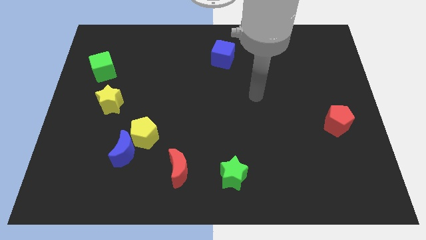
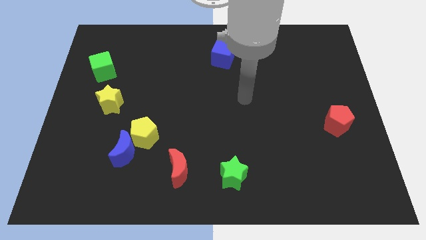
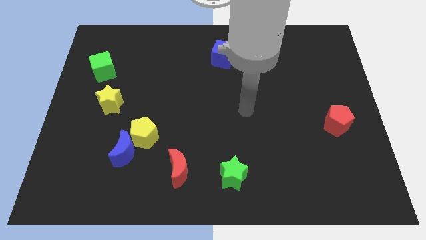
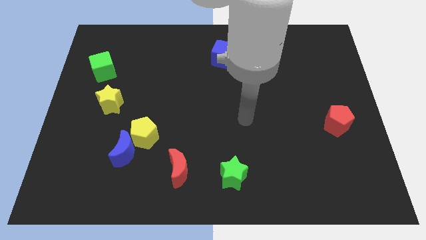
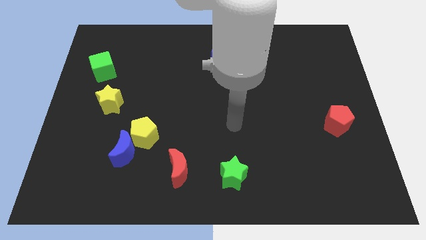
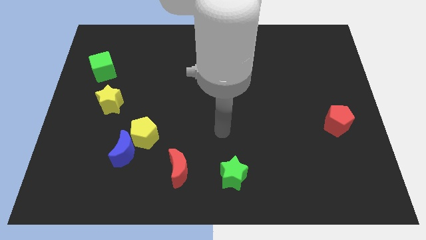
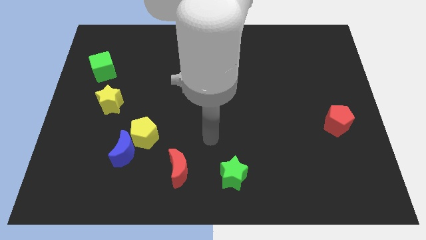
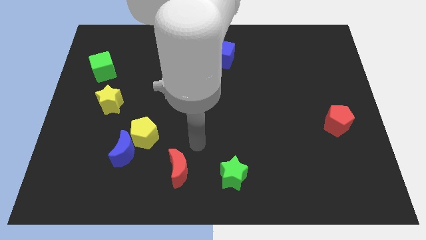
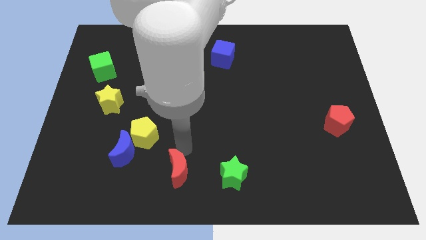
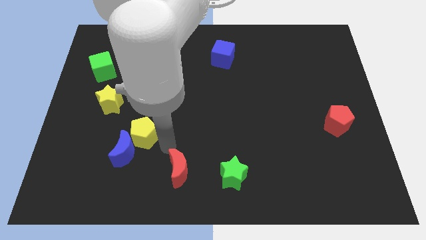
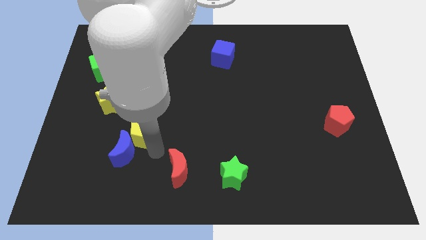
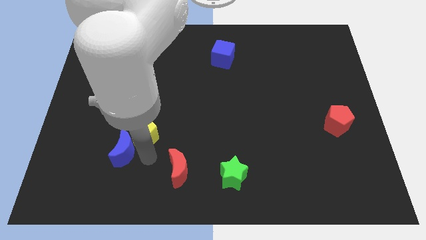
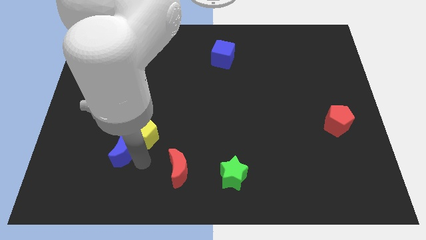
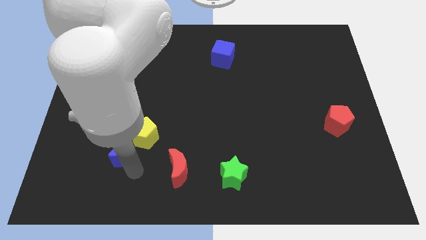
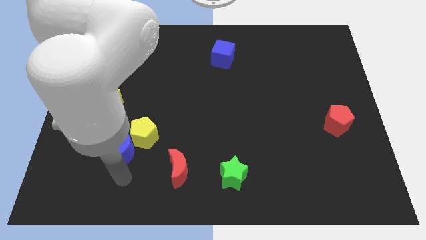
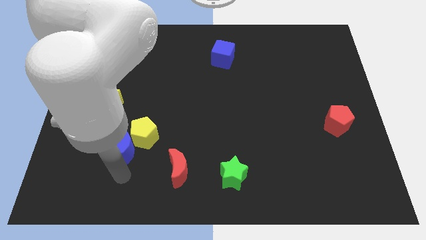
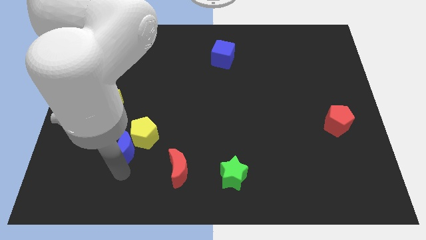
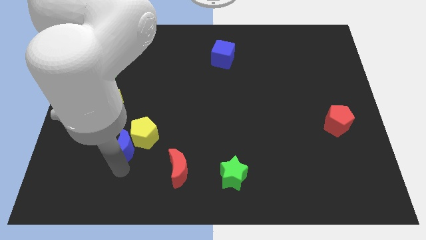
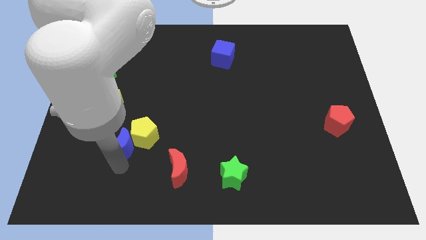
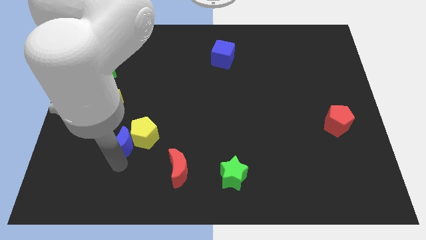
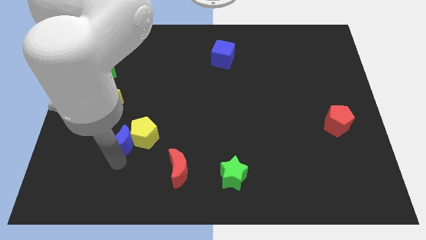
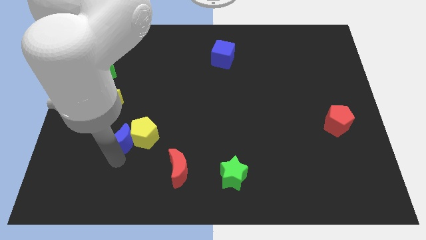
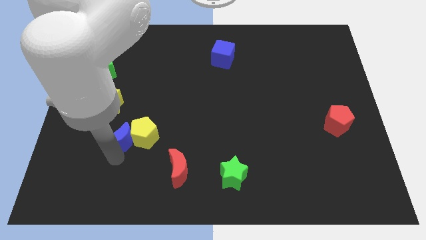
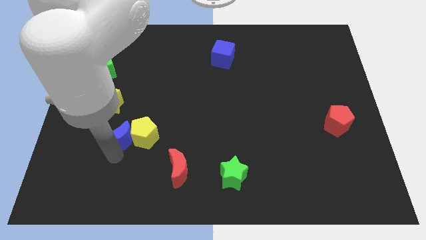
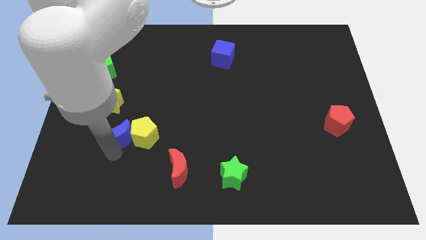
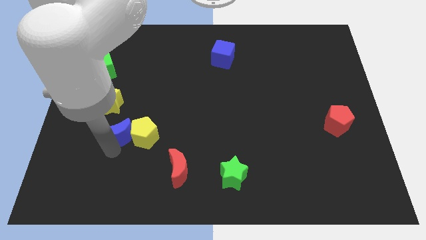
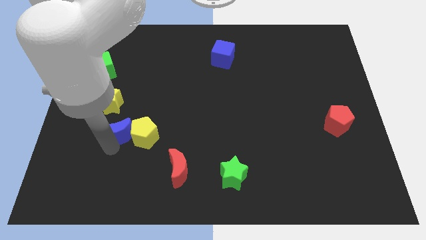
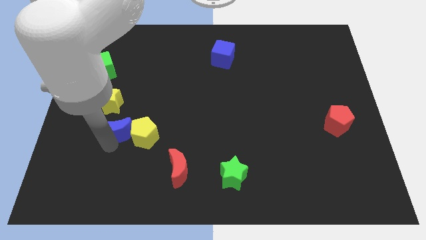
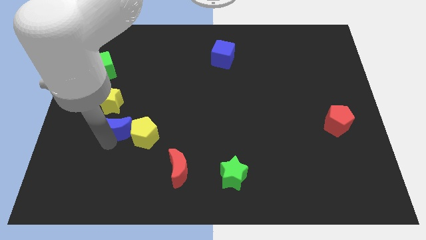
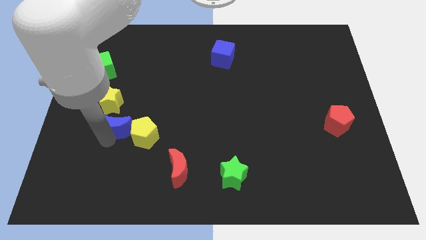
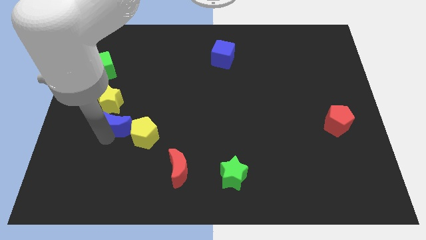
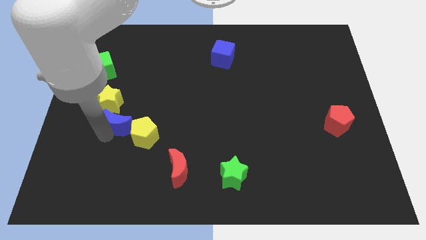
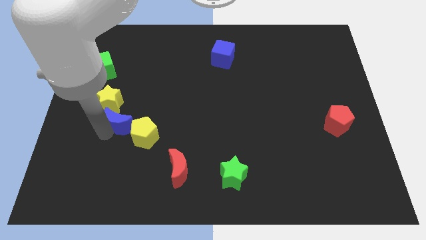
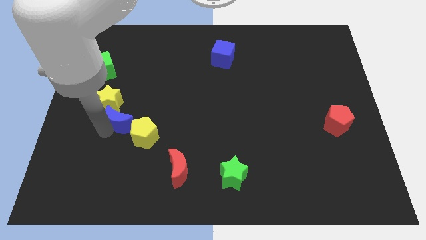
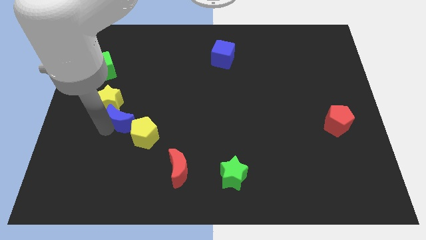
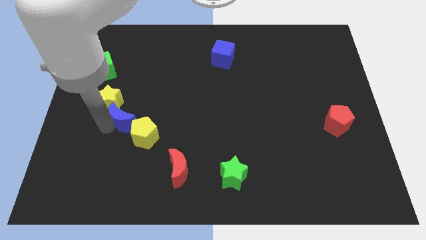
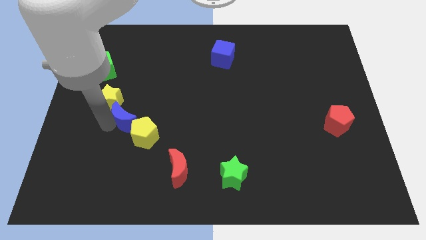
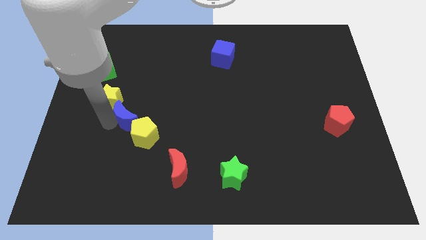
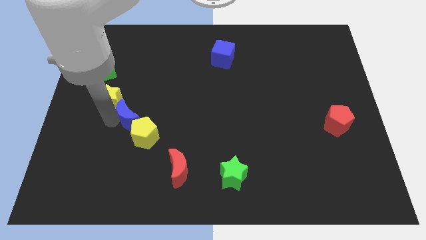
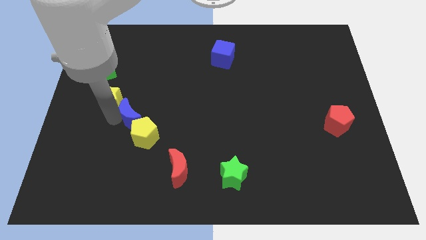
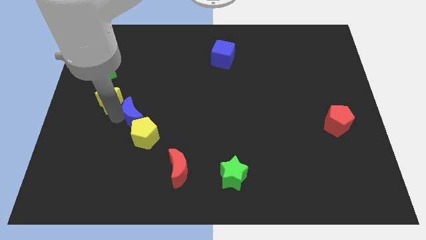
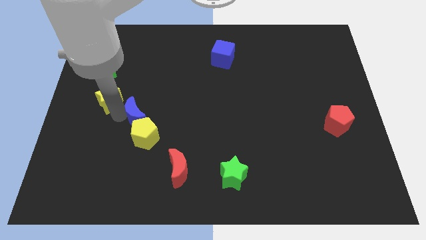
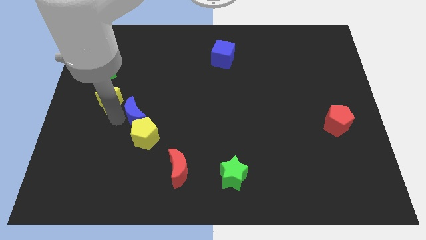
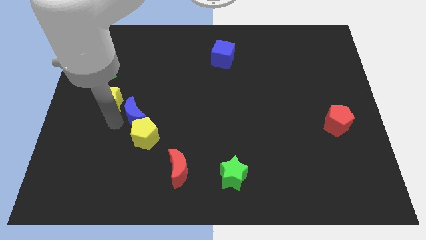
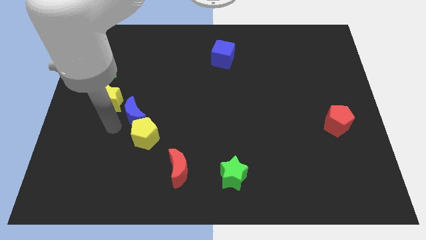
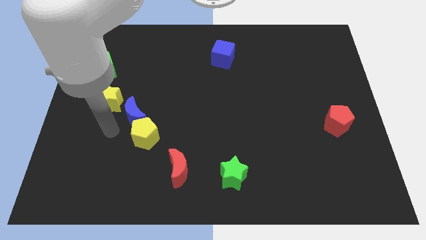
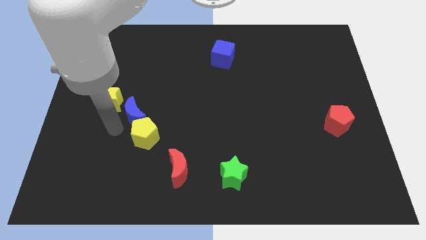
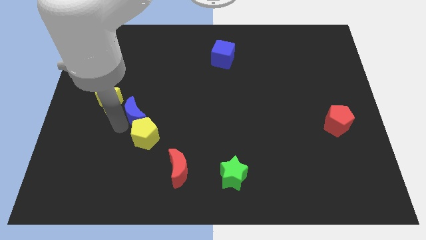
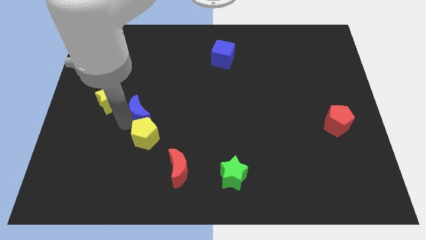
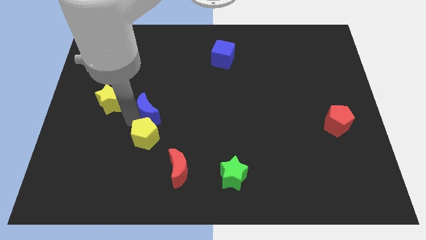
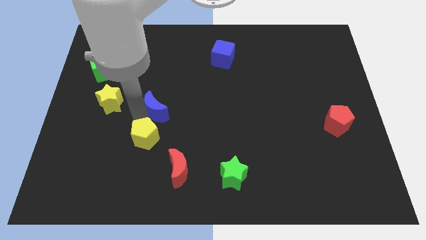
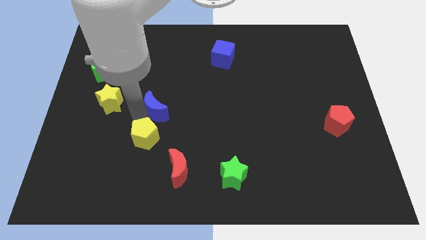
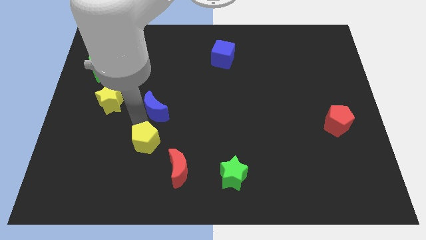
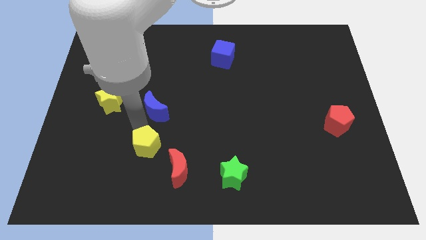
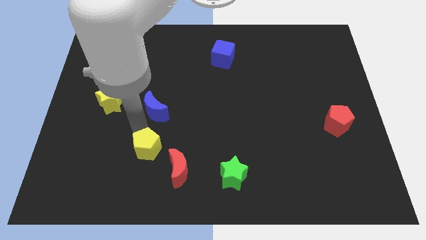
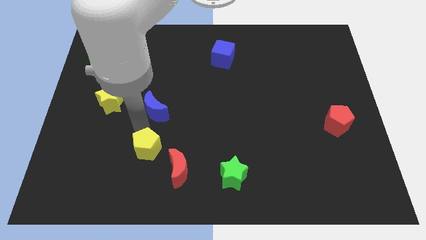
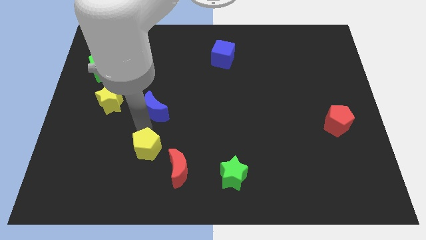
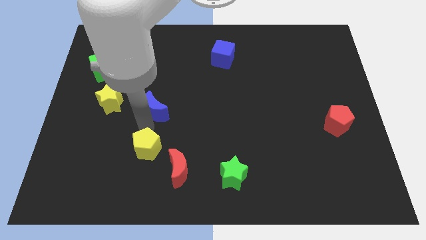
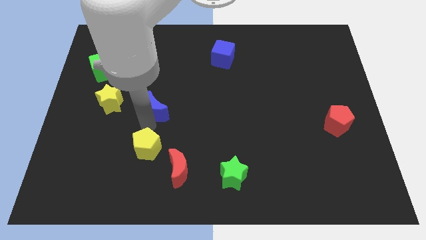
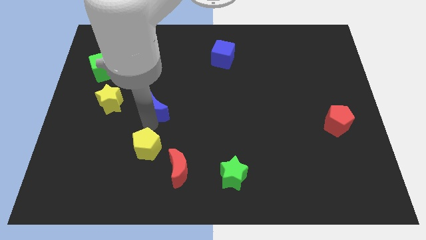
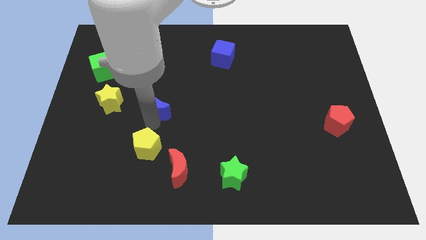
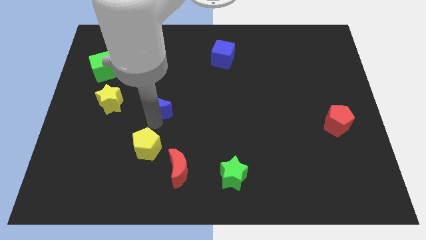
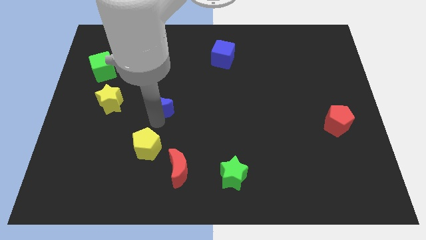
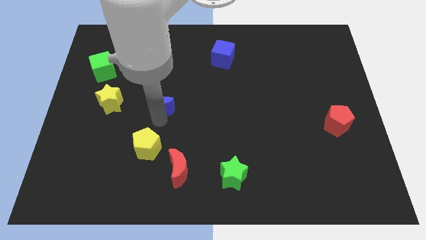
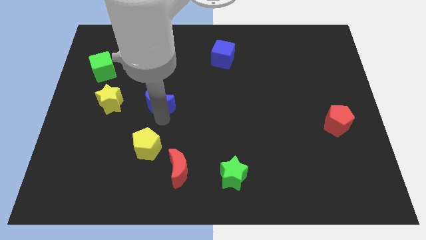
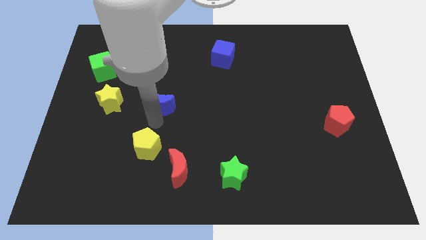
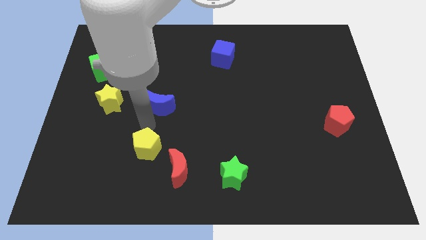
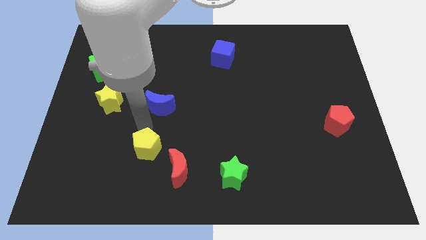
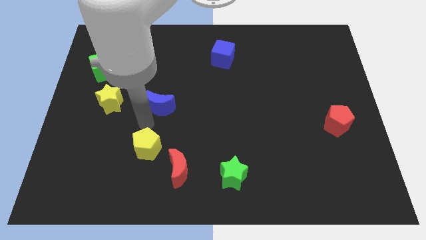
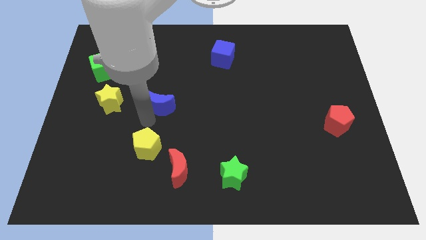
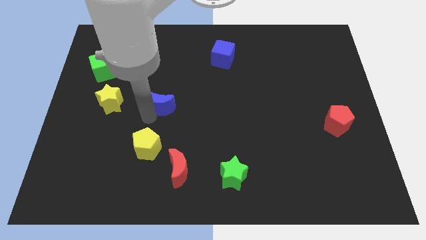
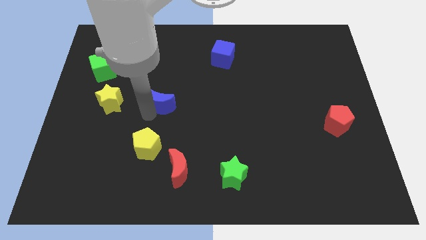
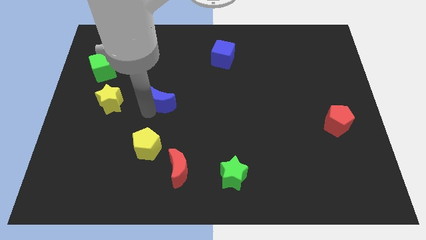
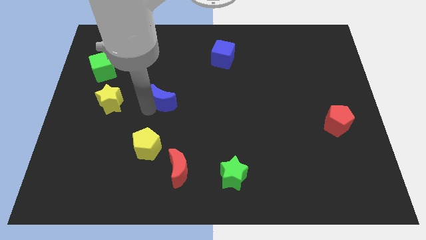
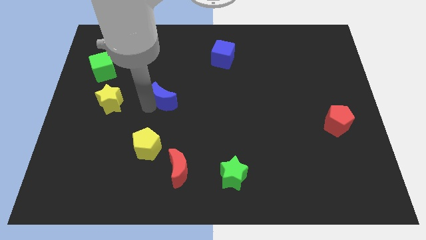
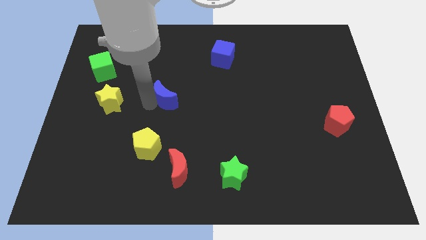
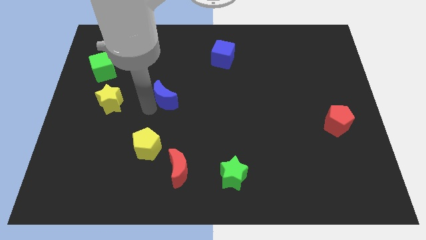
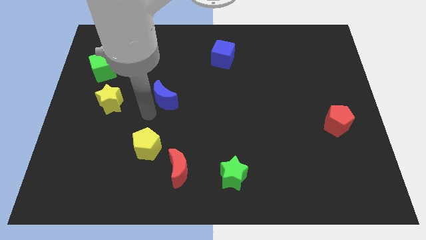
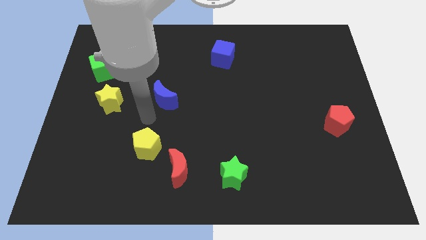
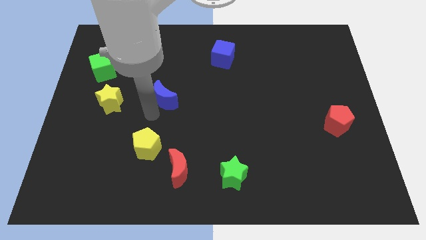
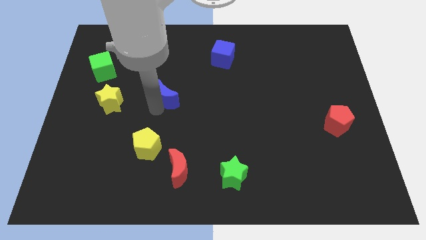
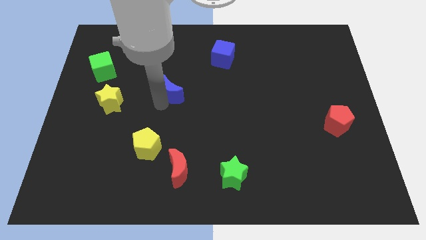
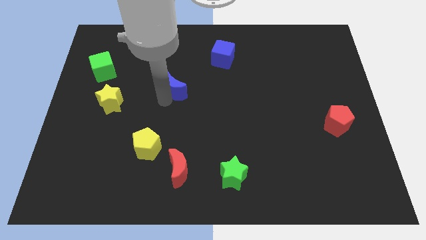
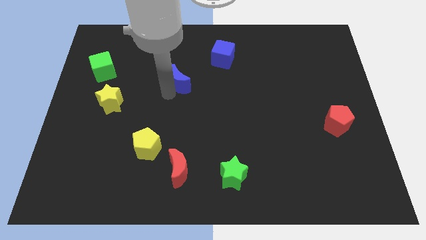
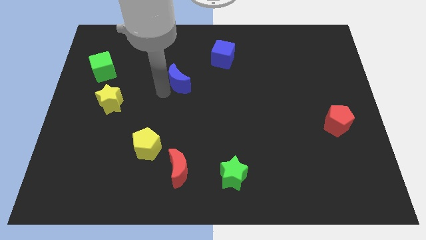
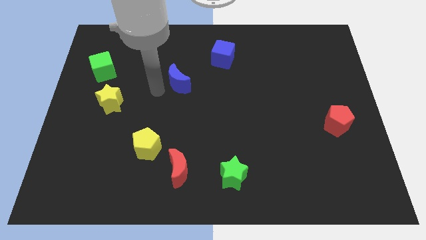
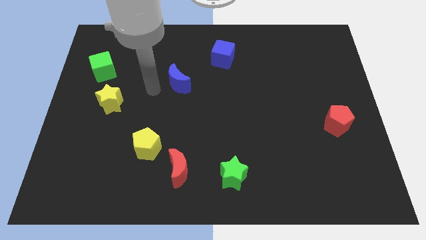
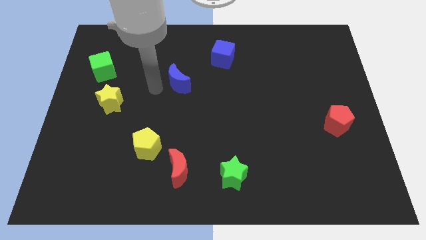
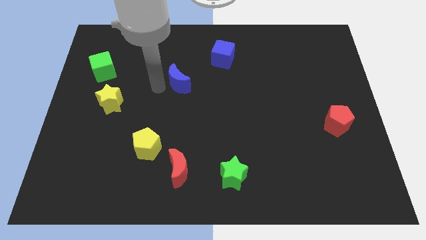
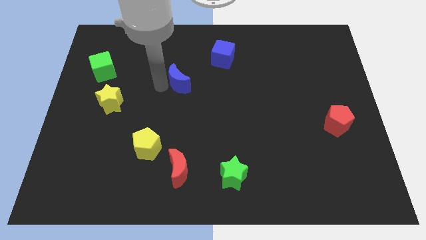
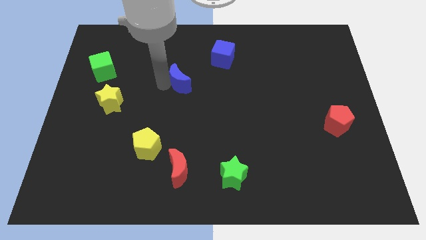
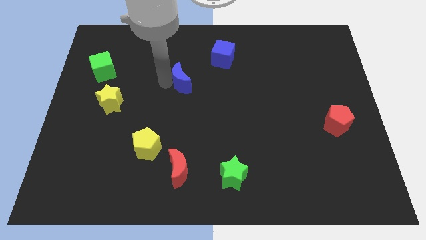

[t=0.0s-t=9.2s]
push the blue moon upwards and right diagonally
